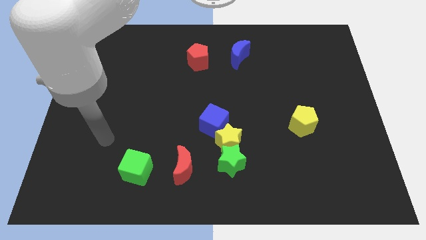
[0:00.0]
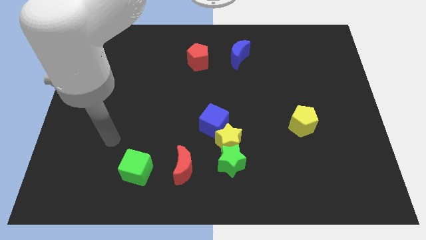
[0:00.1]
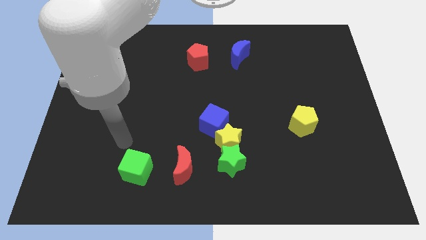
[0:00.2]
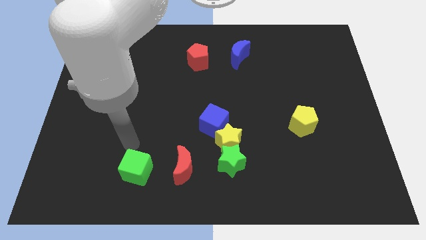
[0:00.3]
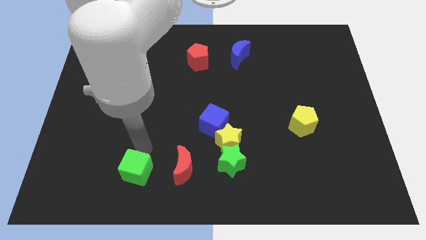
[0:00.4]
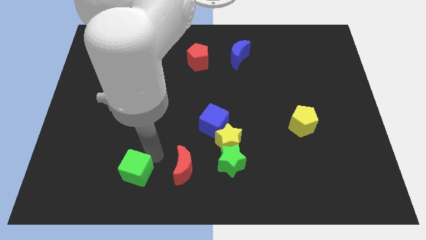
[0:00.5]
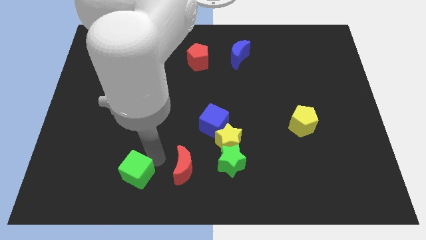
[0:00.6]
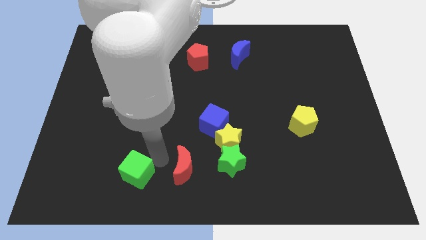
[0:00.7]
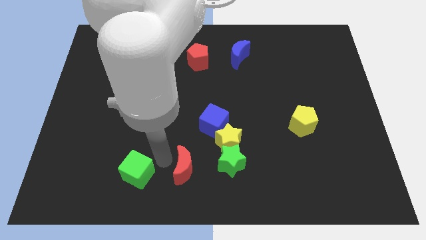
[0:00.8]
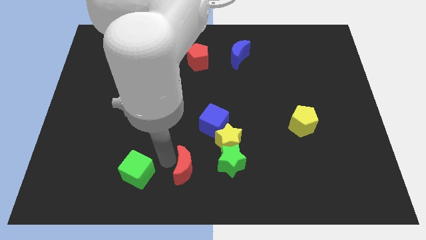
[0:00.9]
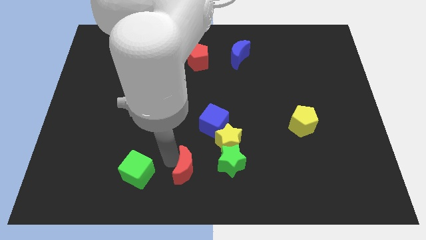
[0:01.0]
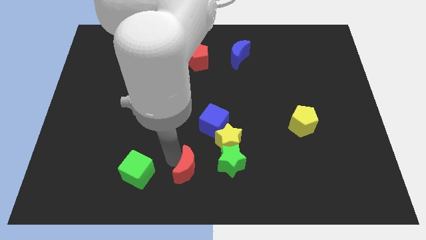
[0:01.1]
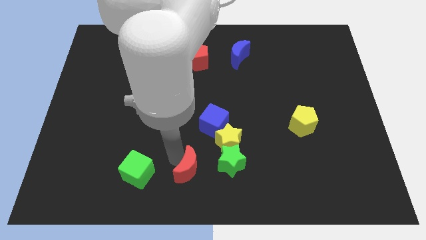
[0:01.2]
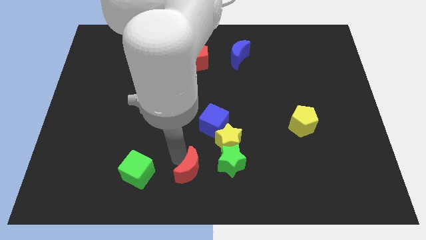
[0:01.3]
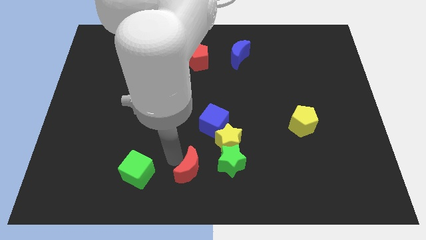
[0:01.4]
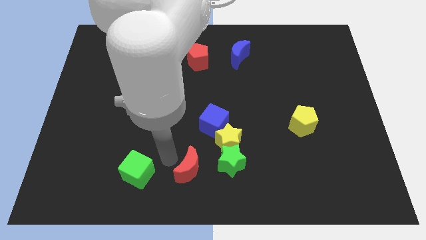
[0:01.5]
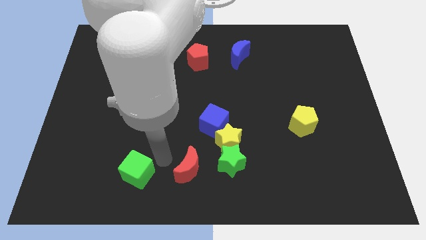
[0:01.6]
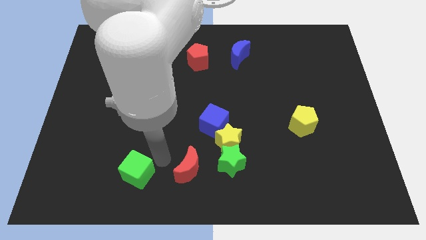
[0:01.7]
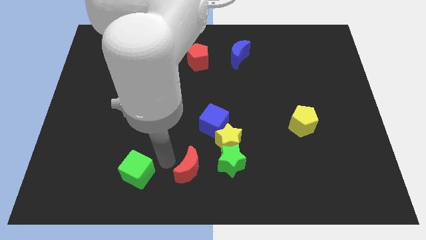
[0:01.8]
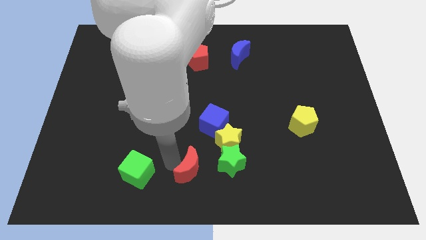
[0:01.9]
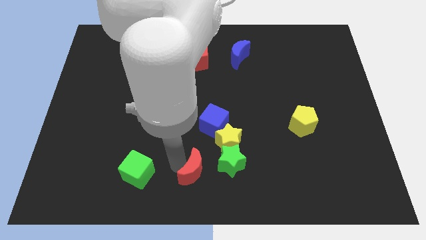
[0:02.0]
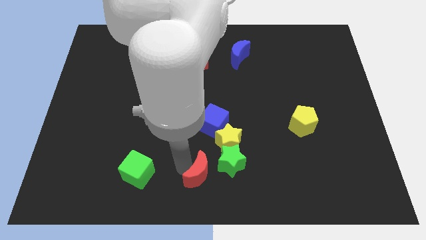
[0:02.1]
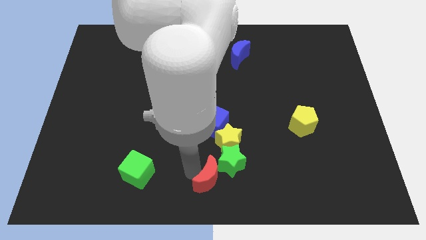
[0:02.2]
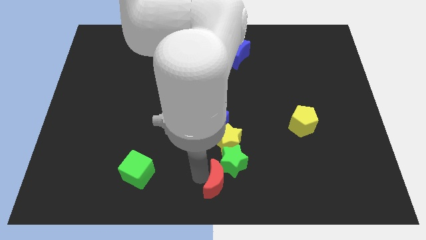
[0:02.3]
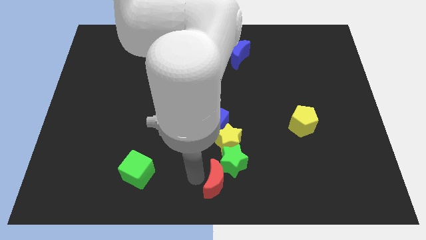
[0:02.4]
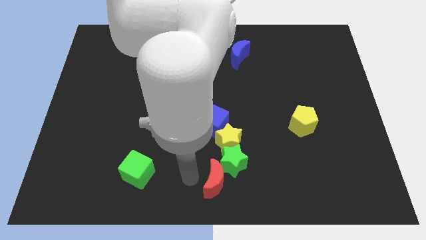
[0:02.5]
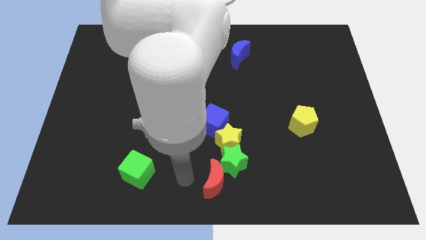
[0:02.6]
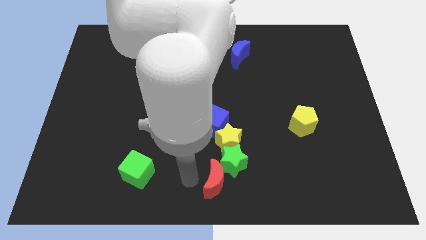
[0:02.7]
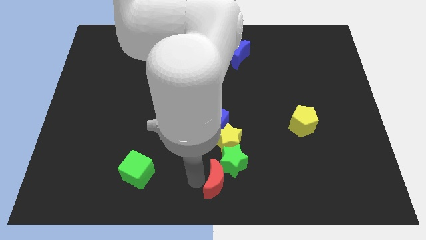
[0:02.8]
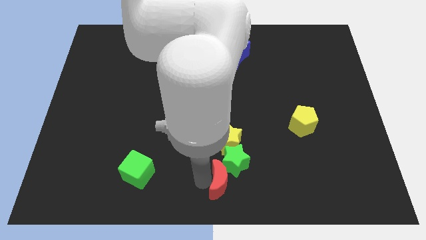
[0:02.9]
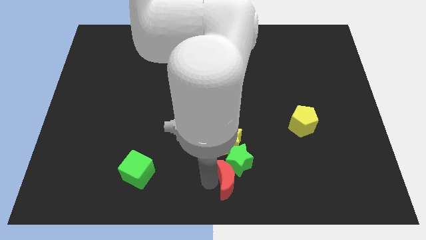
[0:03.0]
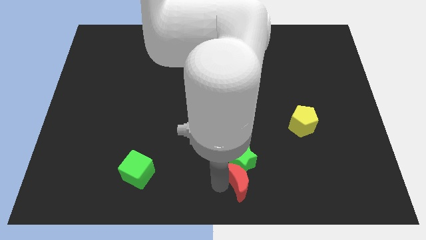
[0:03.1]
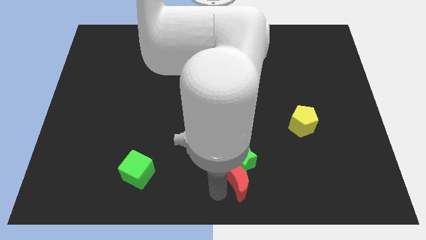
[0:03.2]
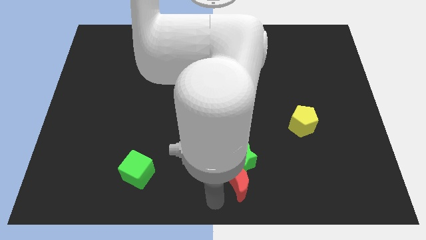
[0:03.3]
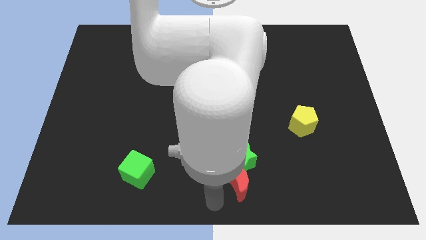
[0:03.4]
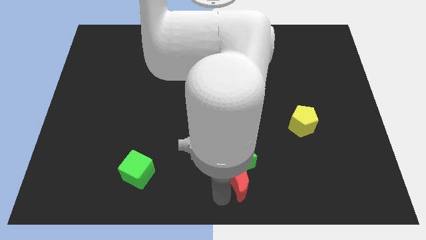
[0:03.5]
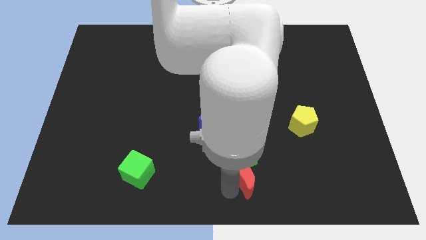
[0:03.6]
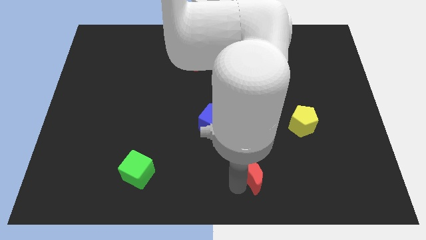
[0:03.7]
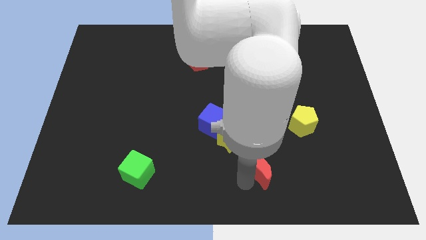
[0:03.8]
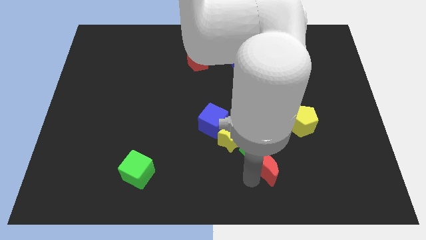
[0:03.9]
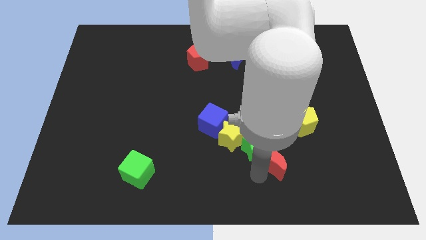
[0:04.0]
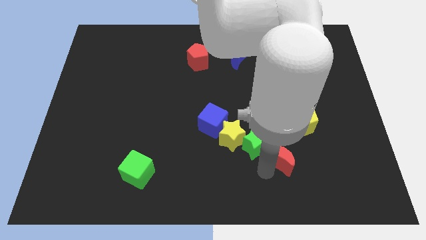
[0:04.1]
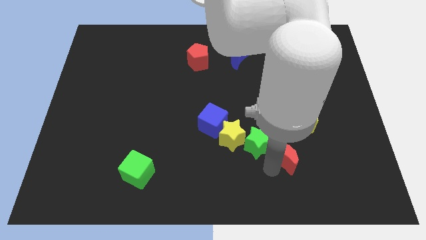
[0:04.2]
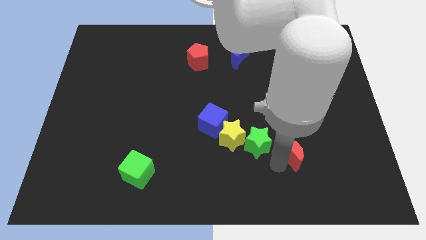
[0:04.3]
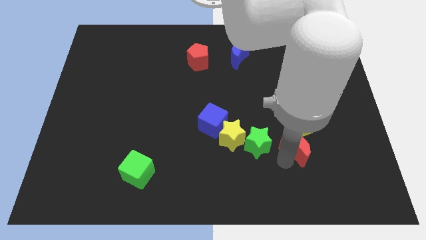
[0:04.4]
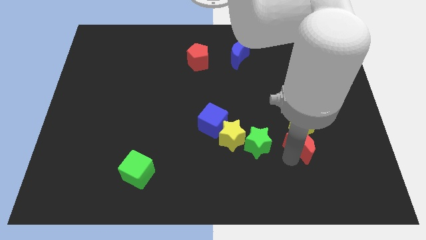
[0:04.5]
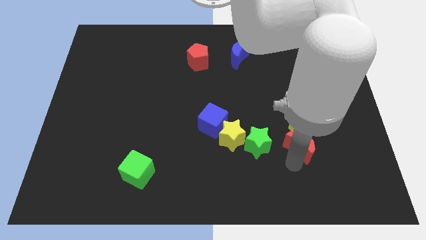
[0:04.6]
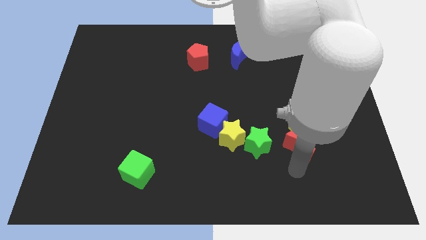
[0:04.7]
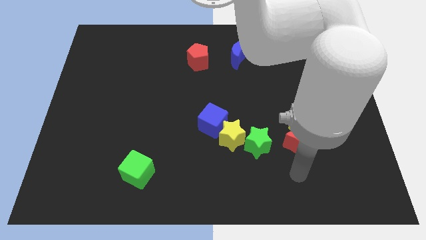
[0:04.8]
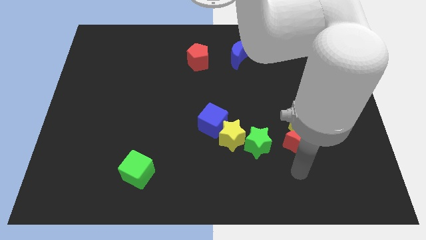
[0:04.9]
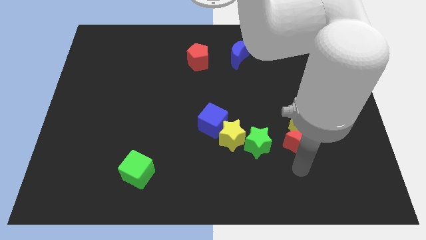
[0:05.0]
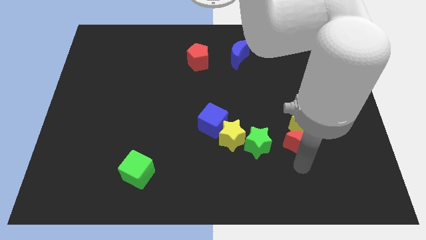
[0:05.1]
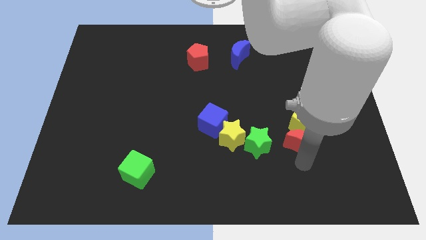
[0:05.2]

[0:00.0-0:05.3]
move the red moon next to the yellow pentagon

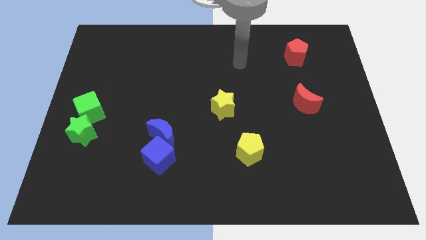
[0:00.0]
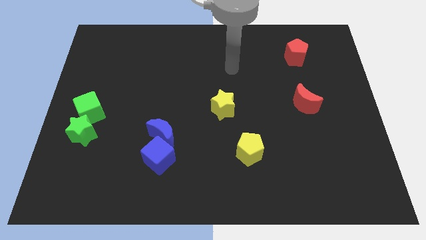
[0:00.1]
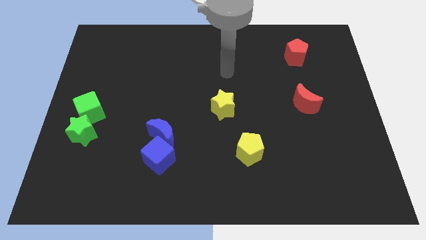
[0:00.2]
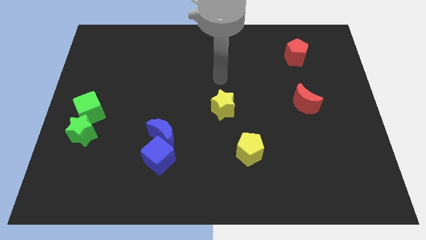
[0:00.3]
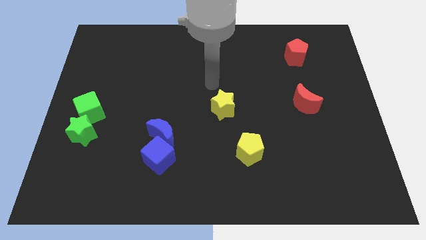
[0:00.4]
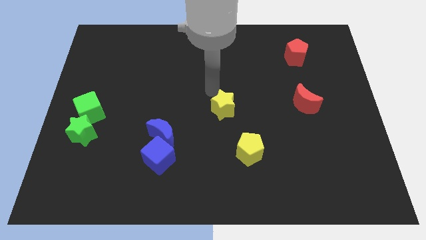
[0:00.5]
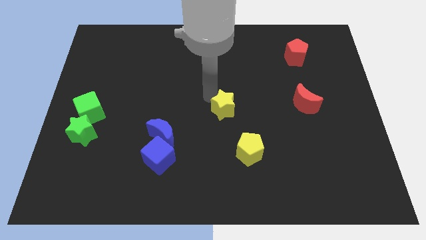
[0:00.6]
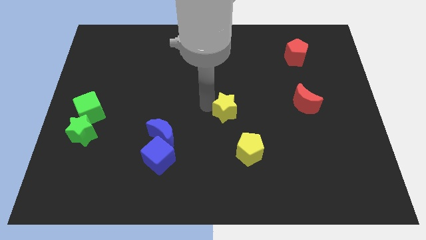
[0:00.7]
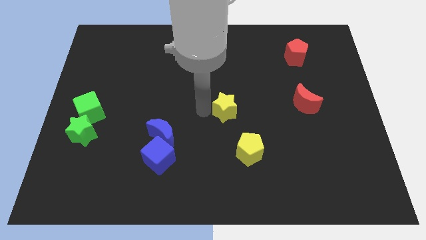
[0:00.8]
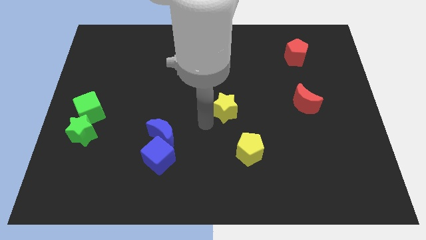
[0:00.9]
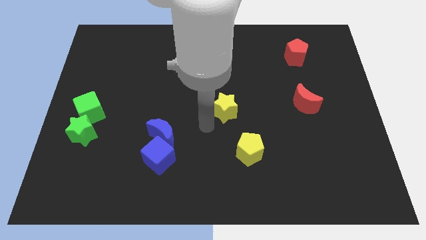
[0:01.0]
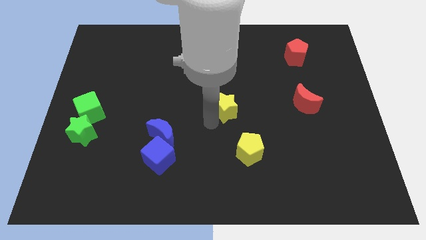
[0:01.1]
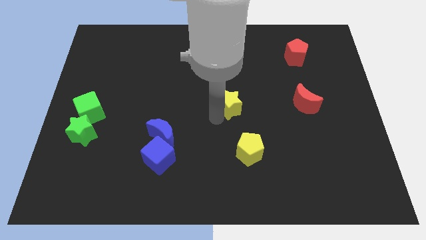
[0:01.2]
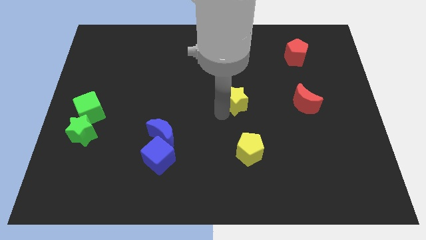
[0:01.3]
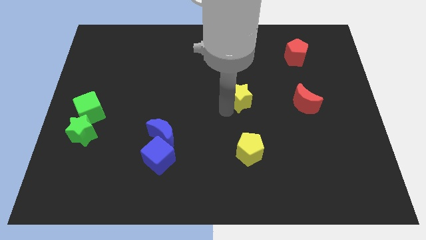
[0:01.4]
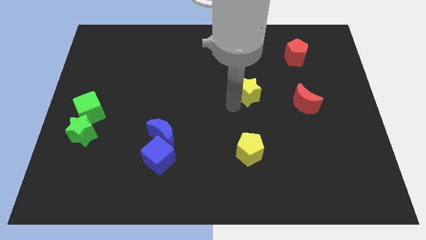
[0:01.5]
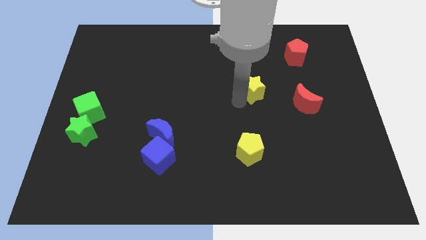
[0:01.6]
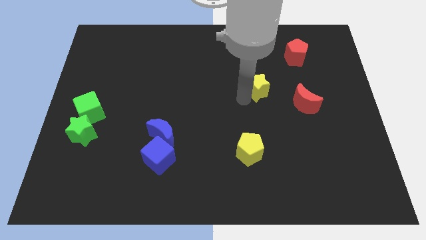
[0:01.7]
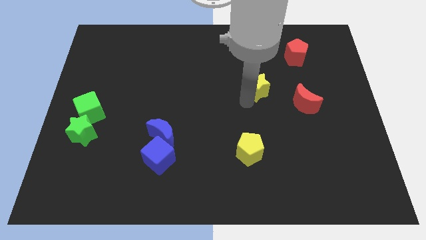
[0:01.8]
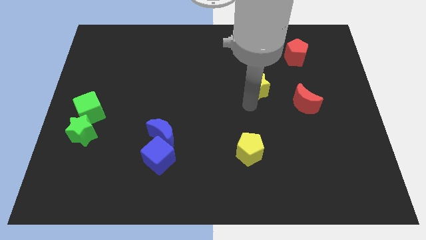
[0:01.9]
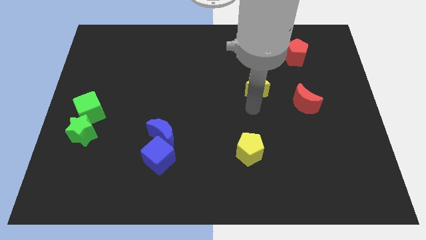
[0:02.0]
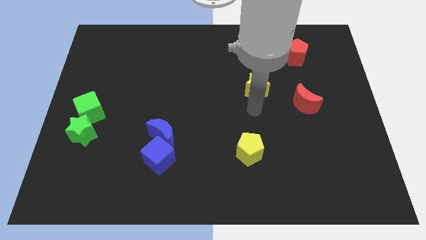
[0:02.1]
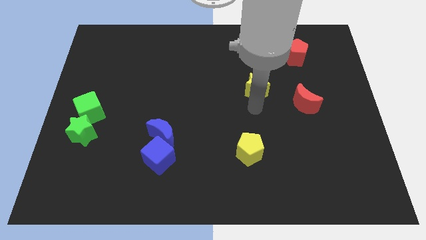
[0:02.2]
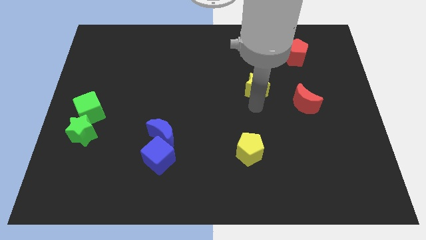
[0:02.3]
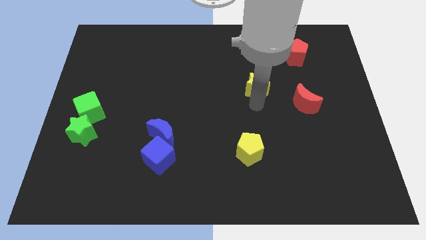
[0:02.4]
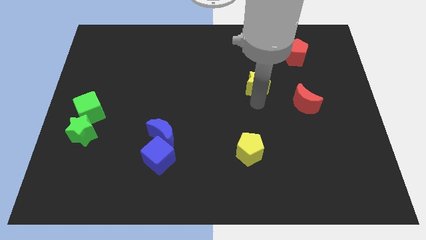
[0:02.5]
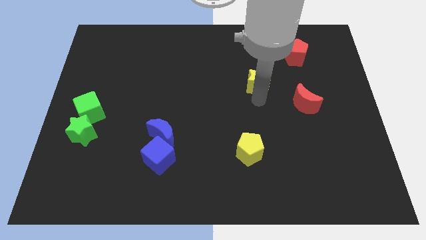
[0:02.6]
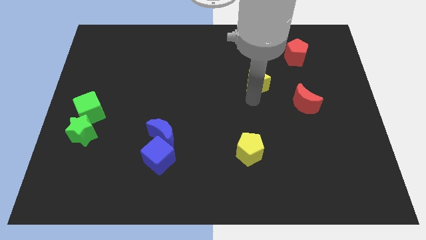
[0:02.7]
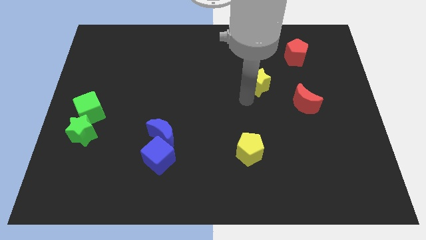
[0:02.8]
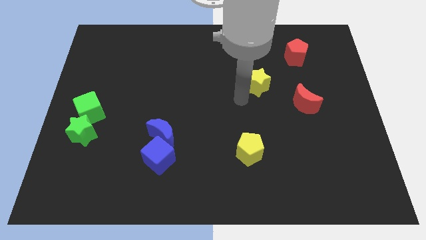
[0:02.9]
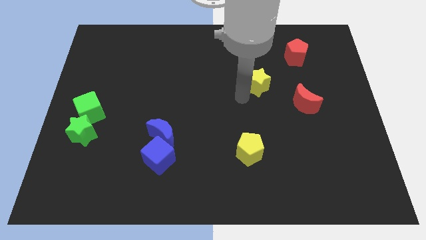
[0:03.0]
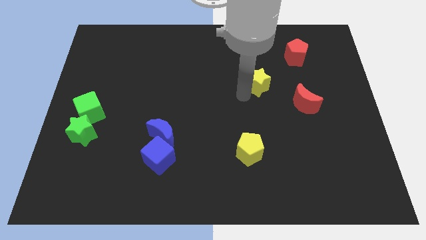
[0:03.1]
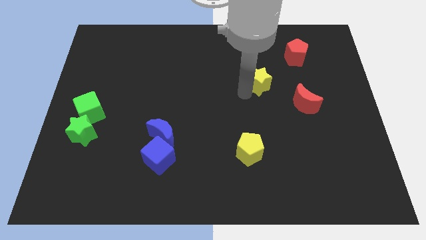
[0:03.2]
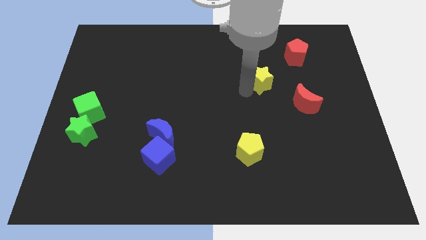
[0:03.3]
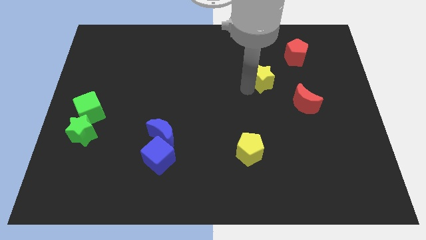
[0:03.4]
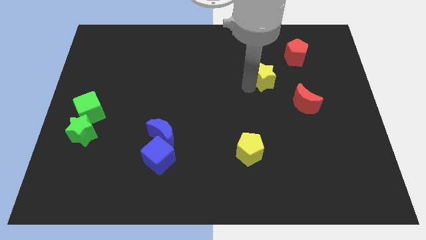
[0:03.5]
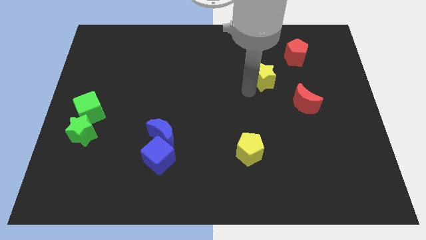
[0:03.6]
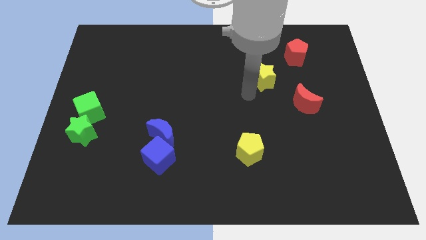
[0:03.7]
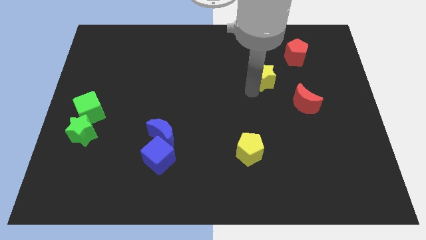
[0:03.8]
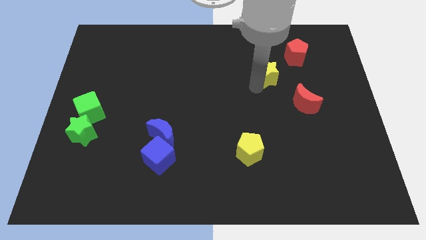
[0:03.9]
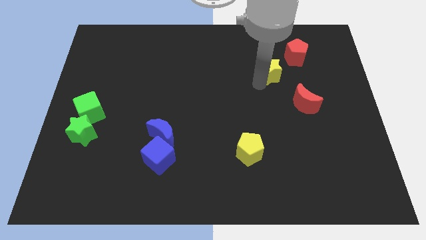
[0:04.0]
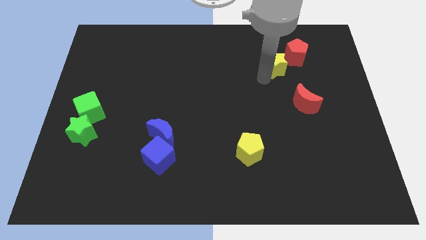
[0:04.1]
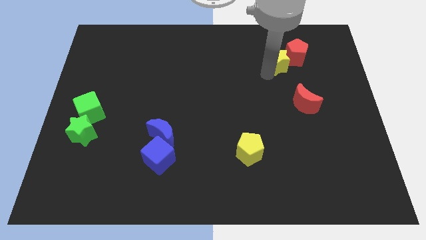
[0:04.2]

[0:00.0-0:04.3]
put the yellow star towards the red pentagon
